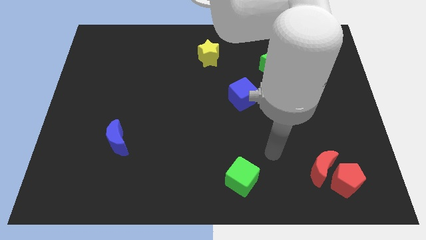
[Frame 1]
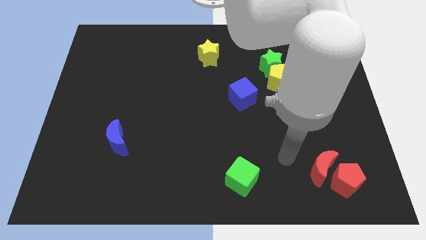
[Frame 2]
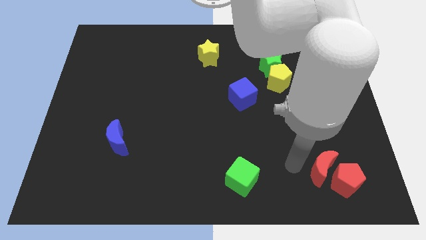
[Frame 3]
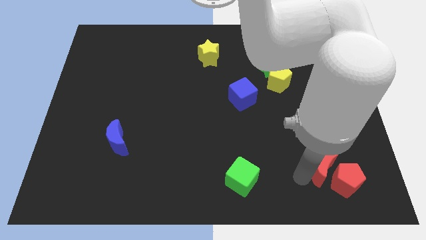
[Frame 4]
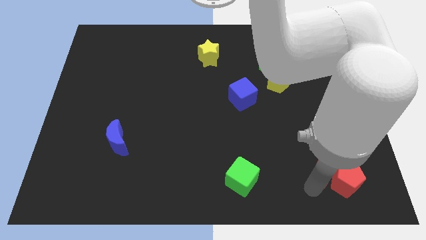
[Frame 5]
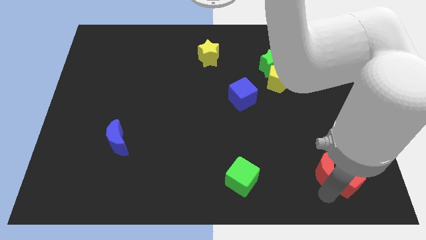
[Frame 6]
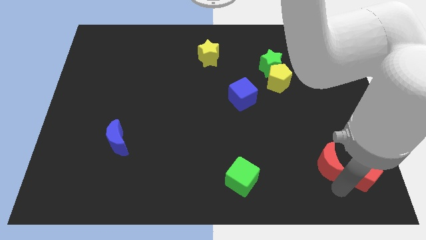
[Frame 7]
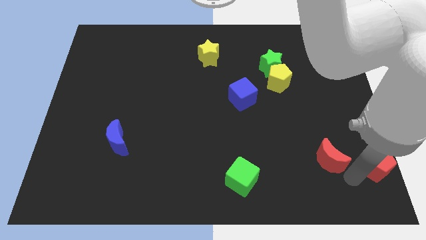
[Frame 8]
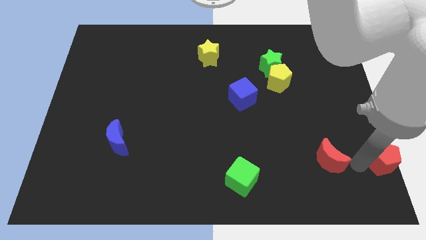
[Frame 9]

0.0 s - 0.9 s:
move the red moon away from the red pentagon

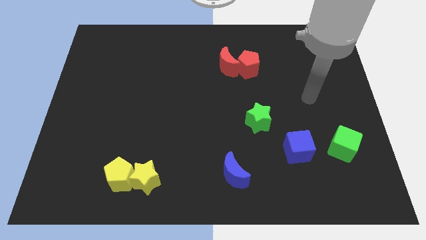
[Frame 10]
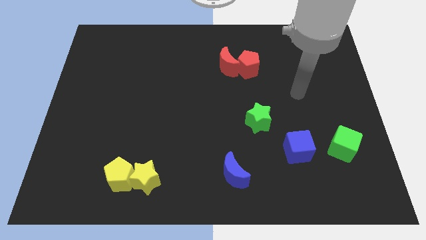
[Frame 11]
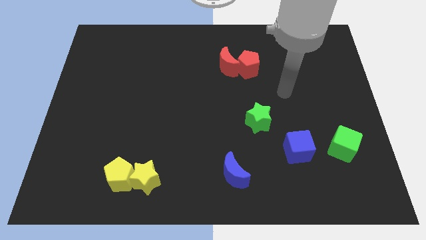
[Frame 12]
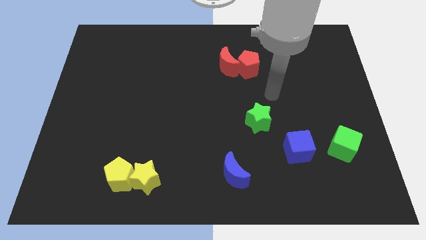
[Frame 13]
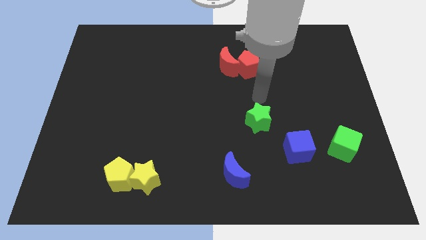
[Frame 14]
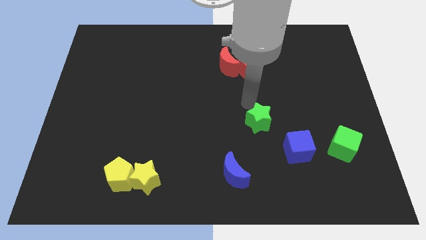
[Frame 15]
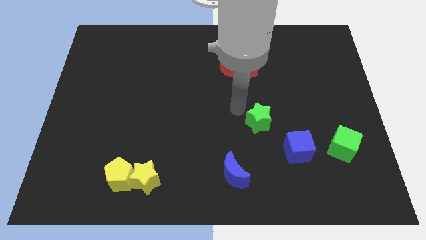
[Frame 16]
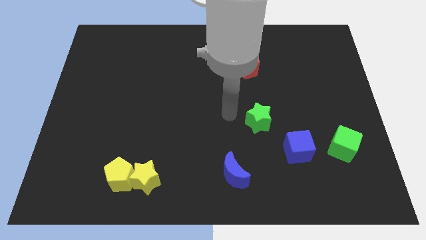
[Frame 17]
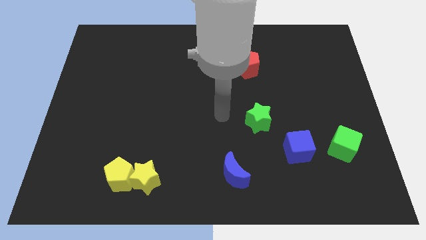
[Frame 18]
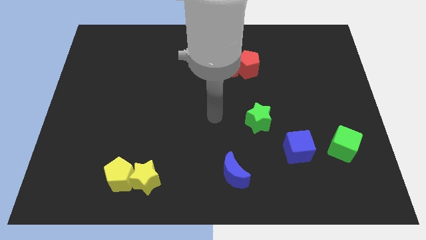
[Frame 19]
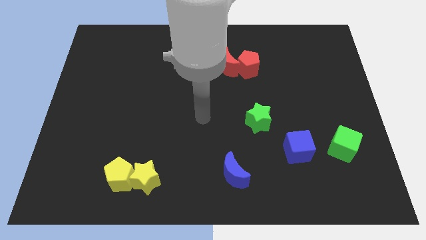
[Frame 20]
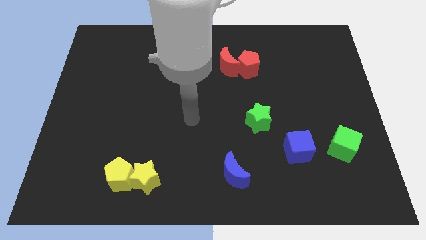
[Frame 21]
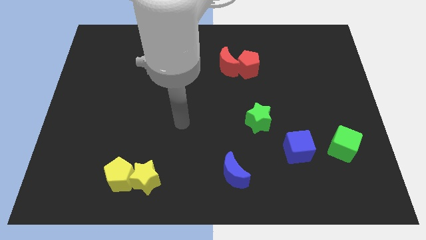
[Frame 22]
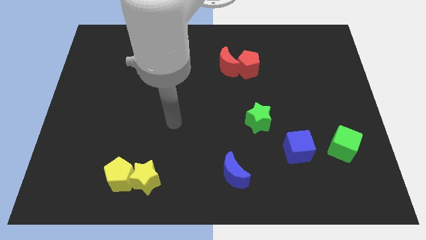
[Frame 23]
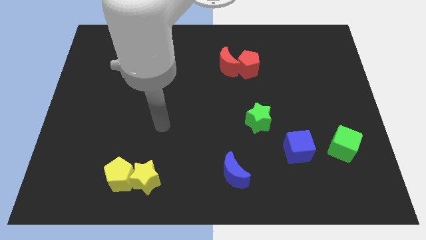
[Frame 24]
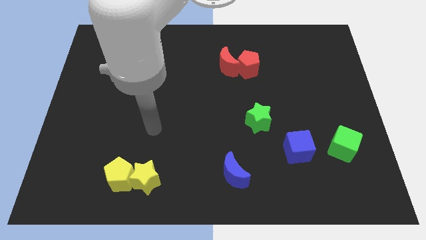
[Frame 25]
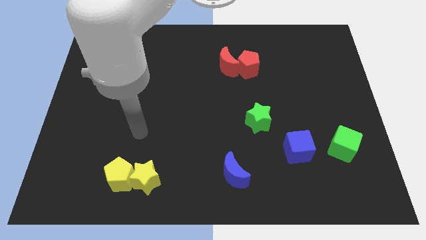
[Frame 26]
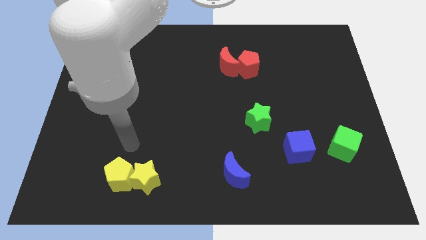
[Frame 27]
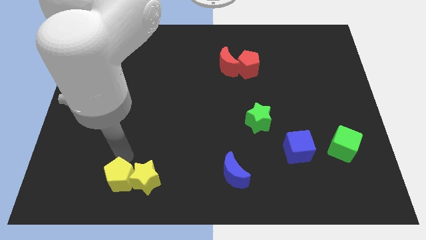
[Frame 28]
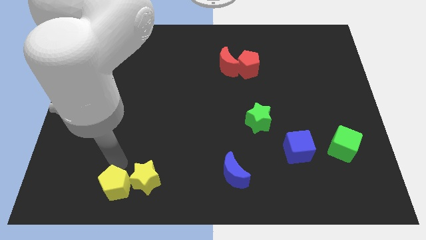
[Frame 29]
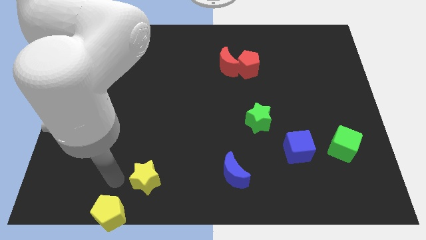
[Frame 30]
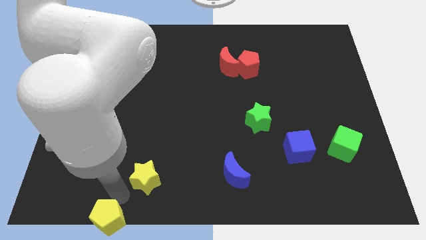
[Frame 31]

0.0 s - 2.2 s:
separate the yellow star from the yellow pentagon

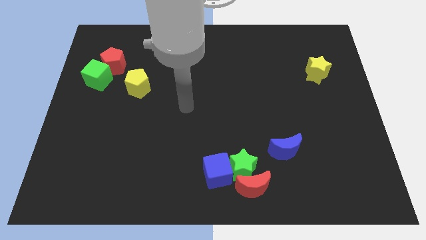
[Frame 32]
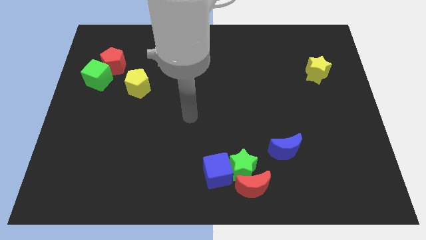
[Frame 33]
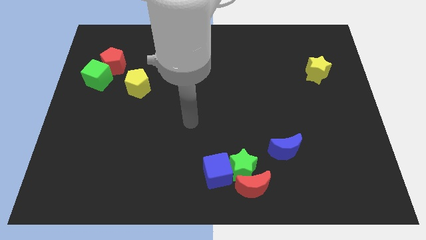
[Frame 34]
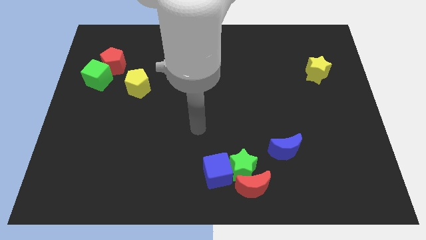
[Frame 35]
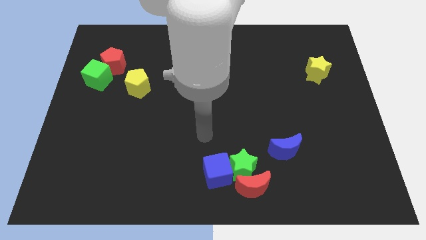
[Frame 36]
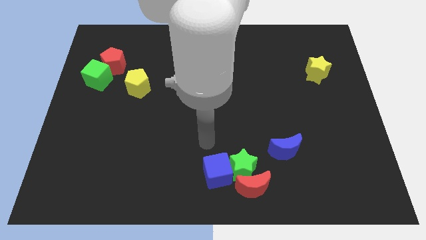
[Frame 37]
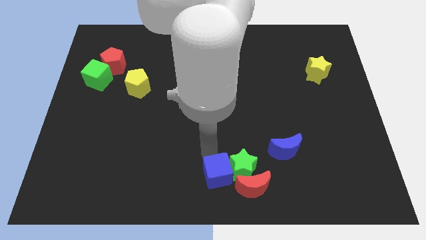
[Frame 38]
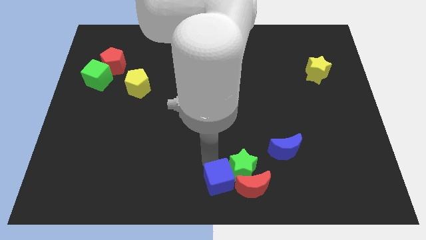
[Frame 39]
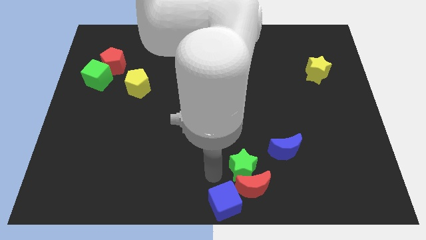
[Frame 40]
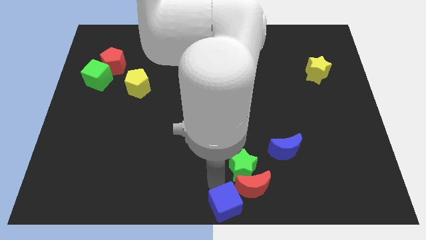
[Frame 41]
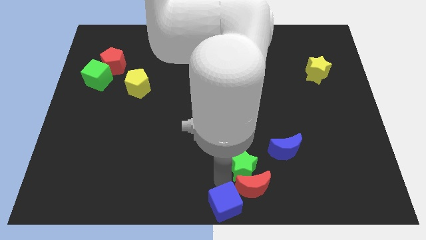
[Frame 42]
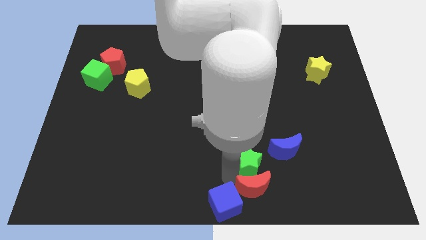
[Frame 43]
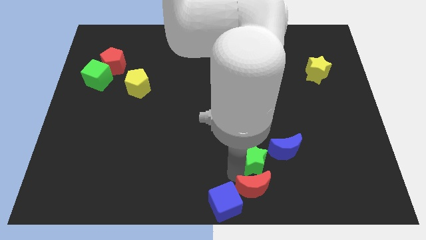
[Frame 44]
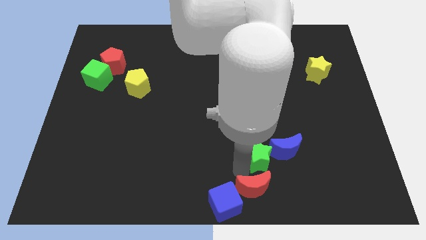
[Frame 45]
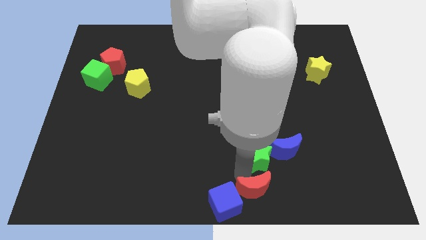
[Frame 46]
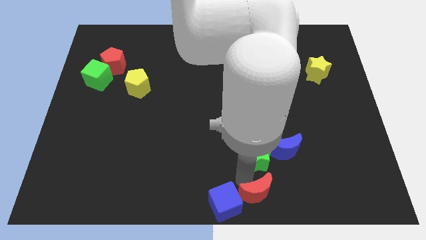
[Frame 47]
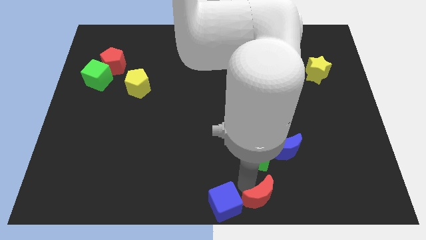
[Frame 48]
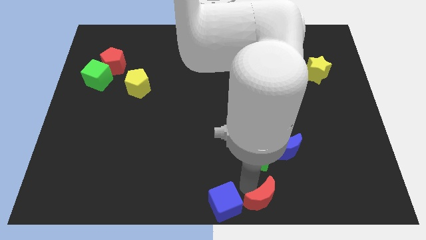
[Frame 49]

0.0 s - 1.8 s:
pull the green star apart from the red moon and blue cube

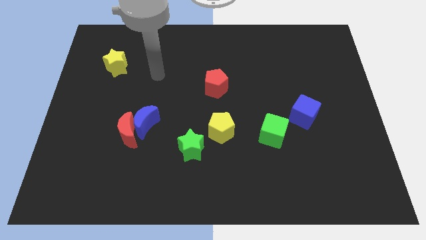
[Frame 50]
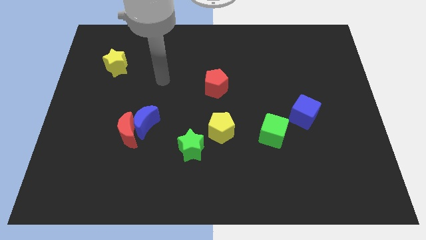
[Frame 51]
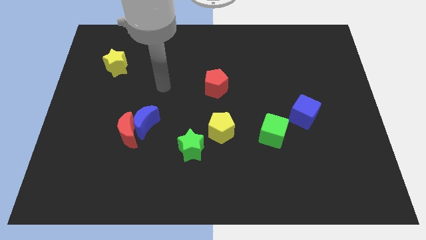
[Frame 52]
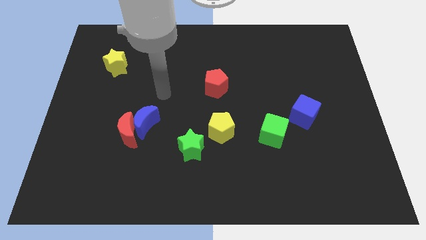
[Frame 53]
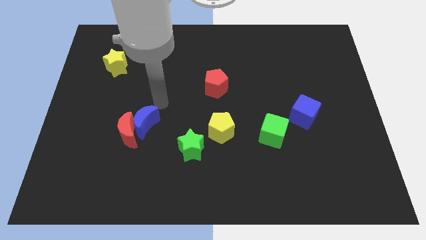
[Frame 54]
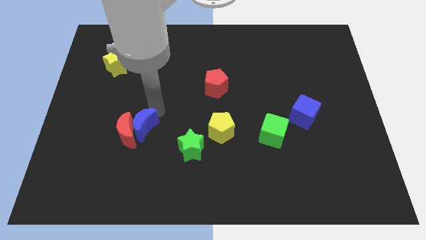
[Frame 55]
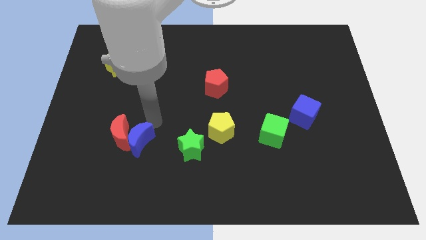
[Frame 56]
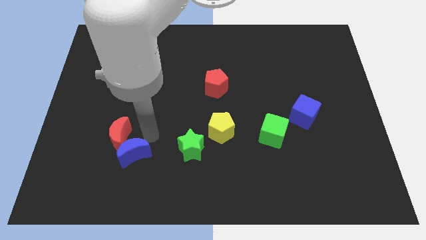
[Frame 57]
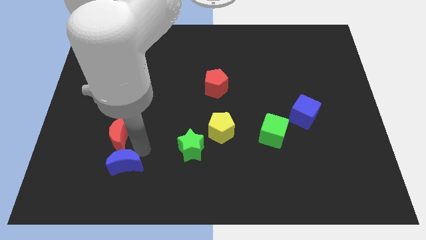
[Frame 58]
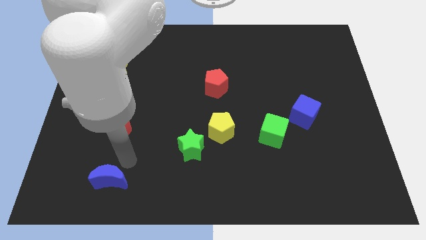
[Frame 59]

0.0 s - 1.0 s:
separate the red moon from the blue moon

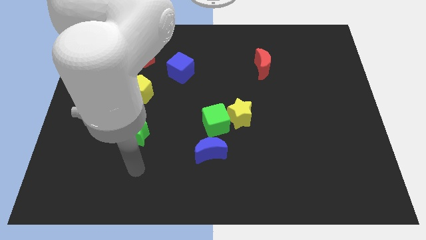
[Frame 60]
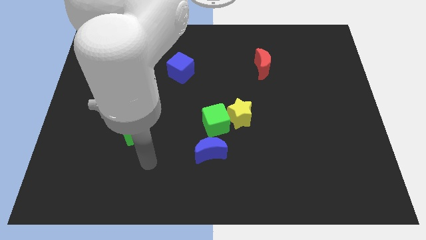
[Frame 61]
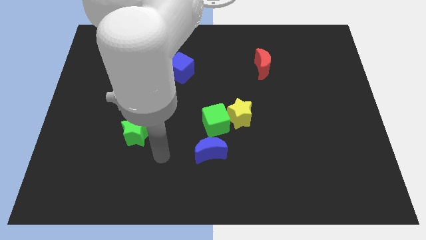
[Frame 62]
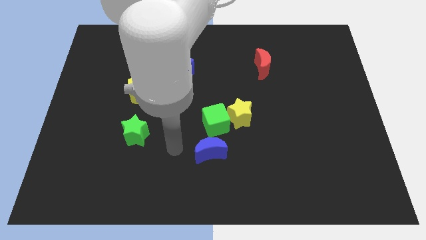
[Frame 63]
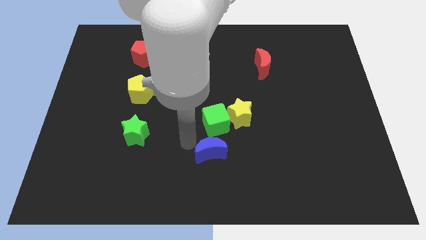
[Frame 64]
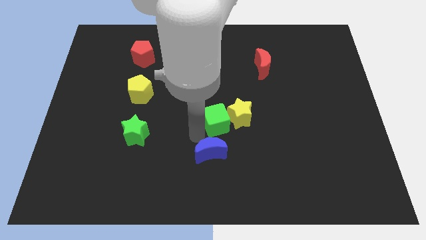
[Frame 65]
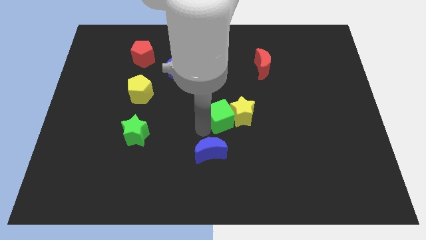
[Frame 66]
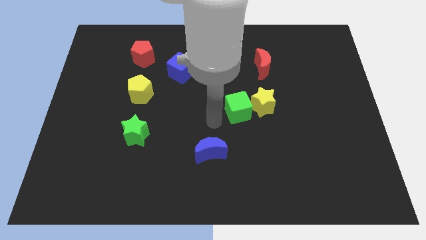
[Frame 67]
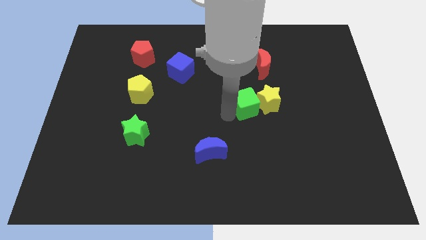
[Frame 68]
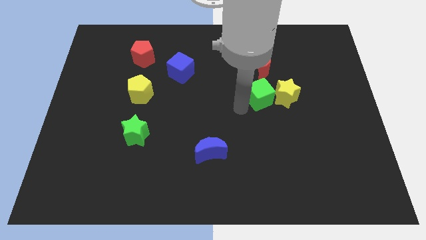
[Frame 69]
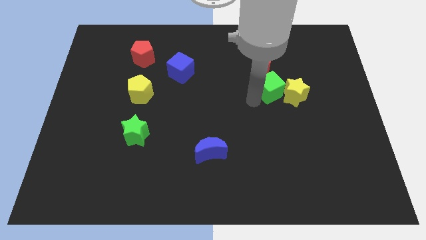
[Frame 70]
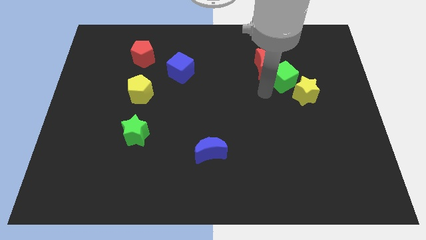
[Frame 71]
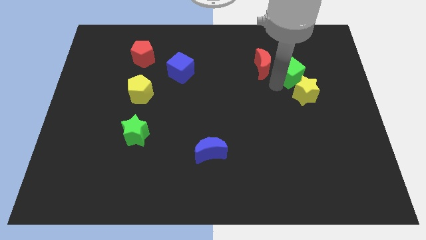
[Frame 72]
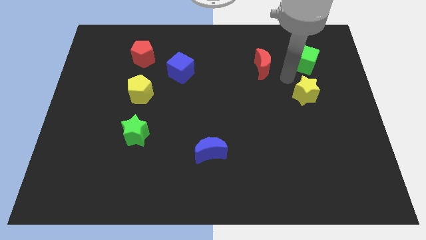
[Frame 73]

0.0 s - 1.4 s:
move the yellow star away from the green cube

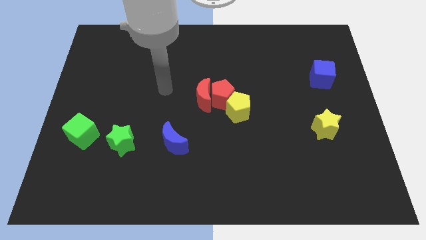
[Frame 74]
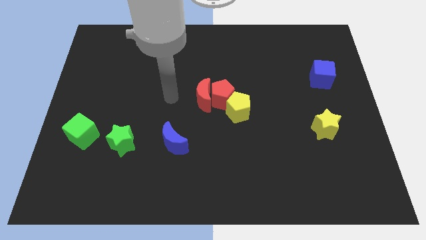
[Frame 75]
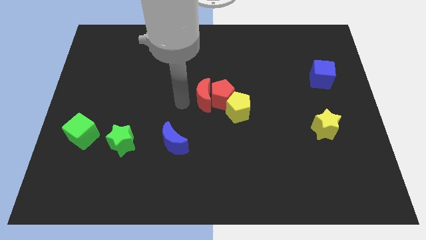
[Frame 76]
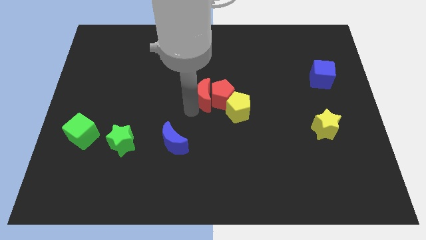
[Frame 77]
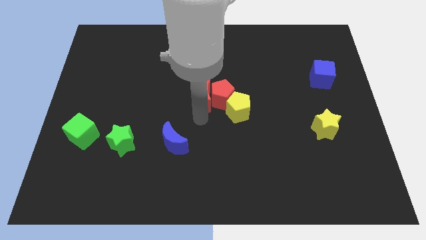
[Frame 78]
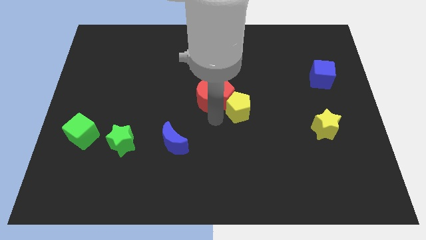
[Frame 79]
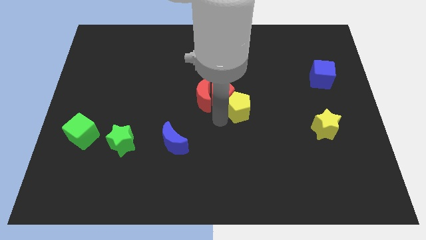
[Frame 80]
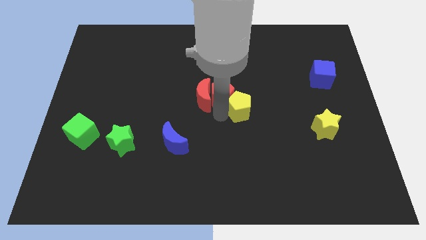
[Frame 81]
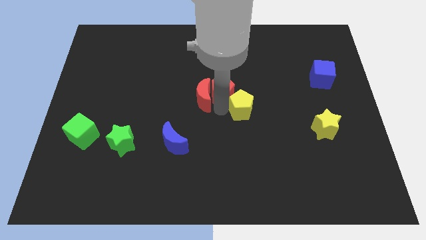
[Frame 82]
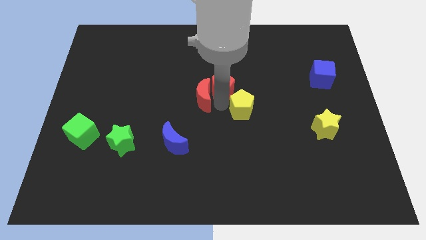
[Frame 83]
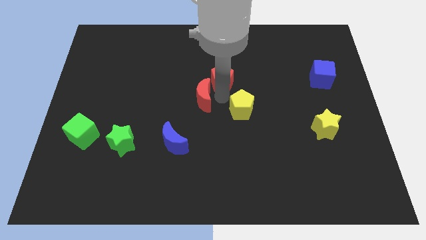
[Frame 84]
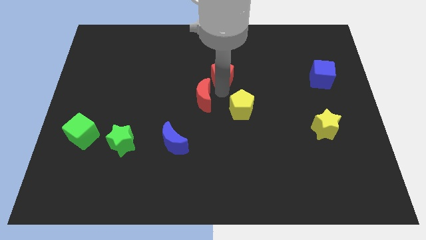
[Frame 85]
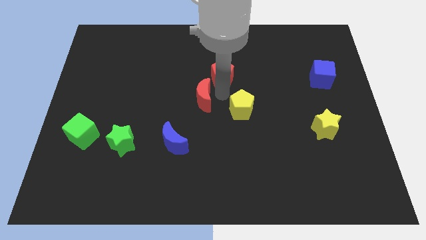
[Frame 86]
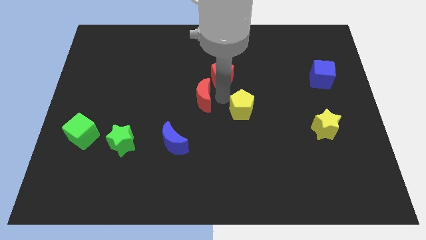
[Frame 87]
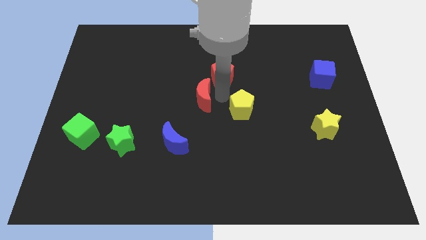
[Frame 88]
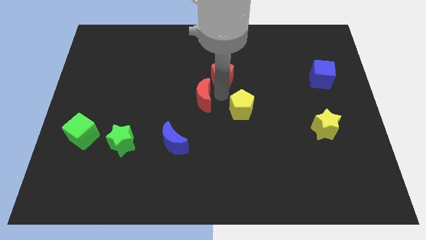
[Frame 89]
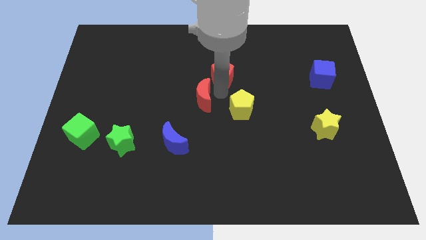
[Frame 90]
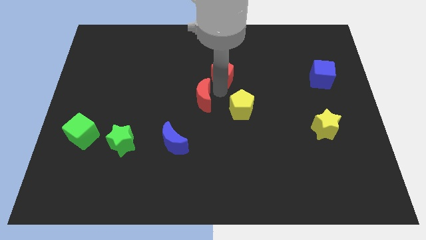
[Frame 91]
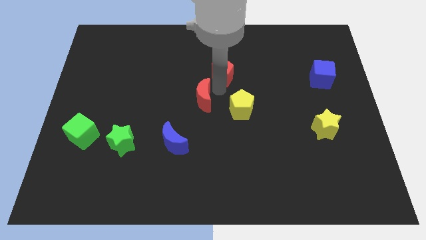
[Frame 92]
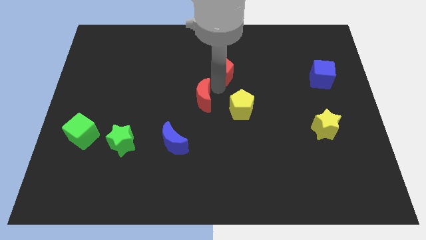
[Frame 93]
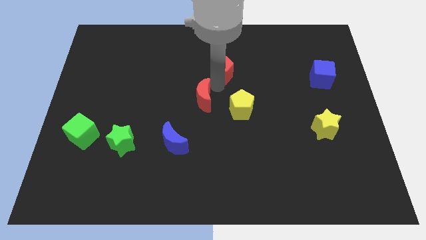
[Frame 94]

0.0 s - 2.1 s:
separate the red pentagon from the red moon and yellow pentagon
